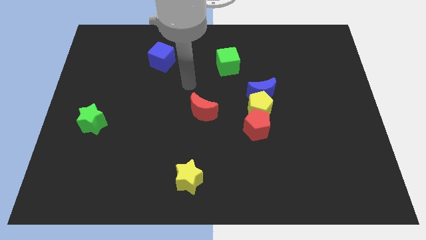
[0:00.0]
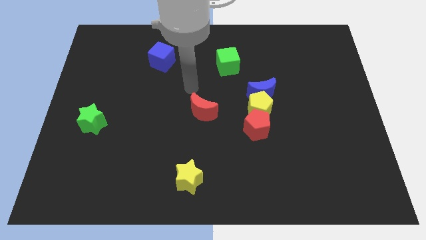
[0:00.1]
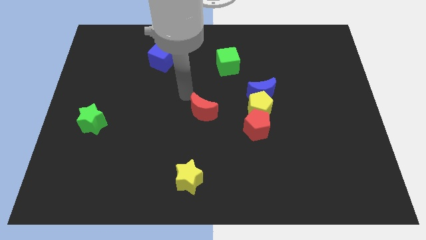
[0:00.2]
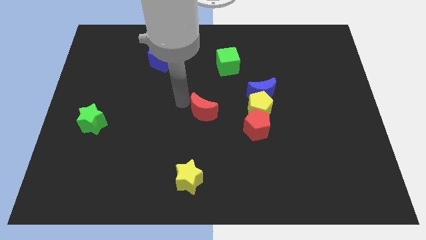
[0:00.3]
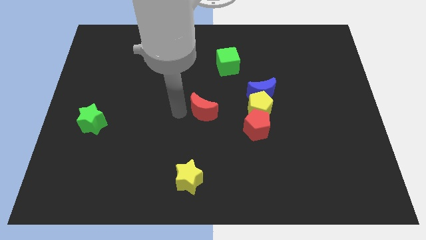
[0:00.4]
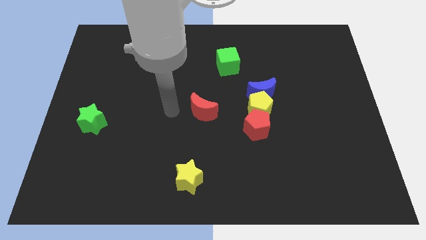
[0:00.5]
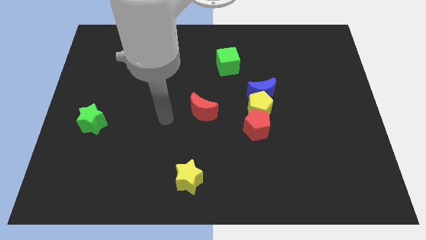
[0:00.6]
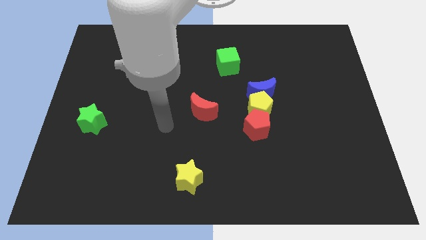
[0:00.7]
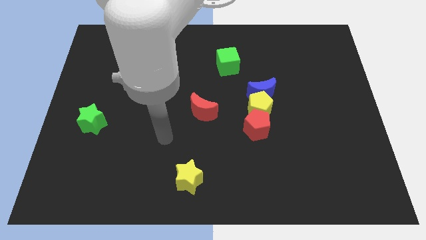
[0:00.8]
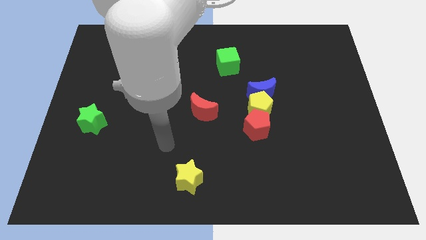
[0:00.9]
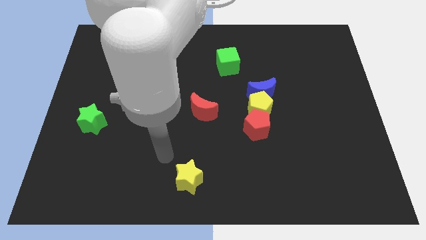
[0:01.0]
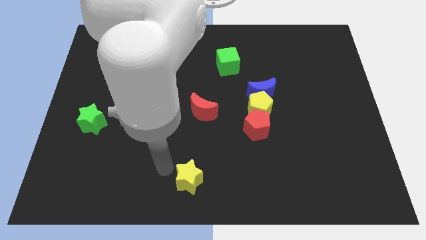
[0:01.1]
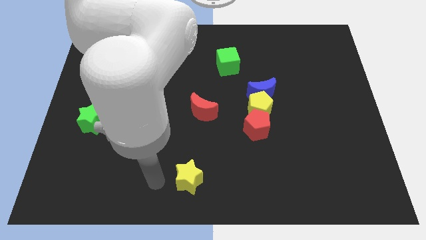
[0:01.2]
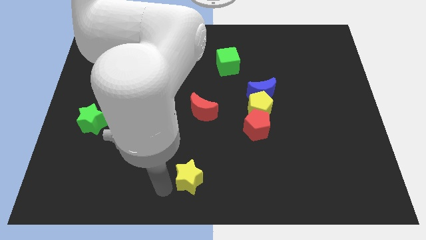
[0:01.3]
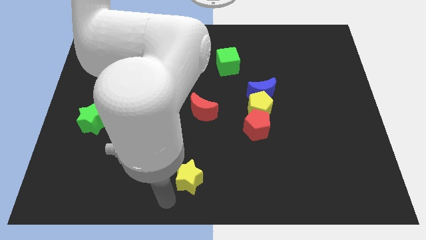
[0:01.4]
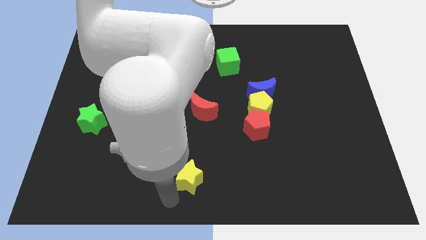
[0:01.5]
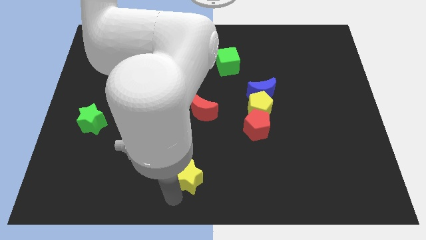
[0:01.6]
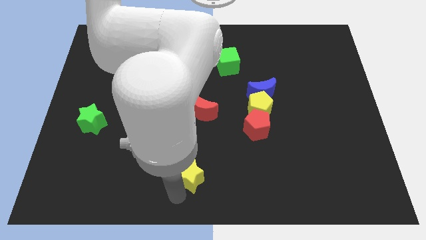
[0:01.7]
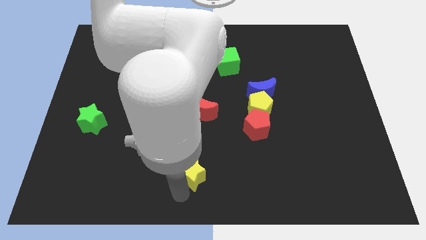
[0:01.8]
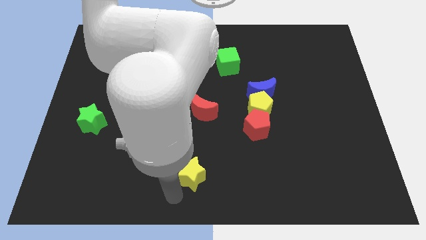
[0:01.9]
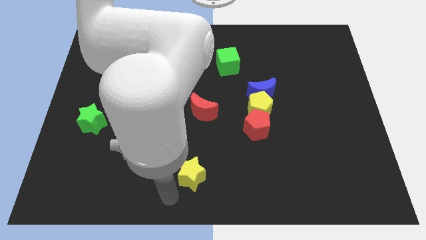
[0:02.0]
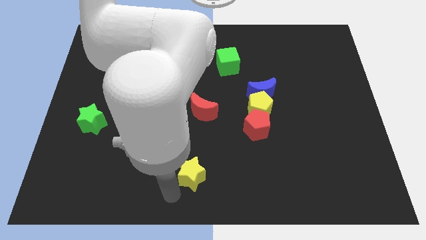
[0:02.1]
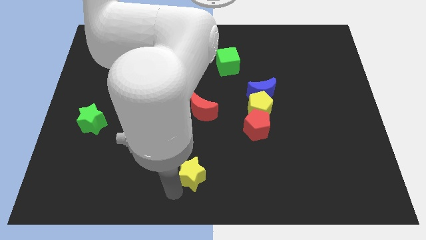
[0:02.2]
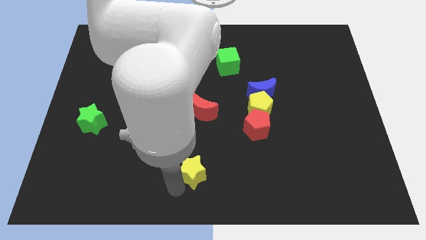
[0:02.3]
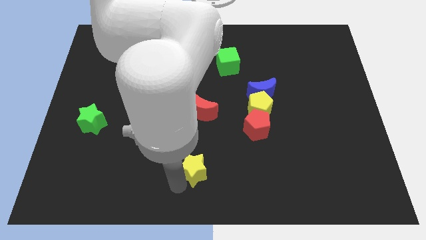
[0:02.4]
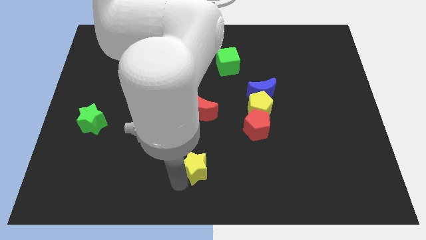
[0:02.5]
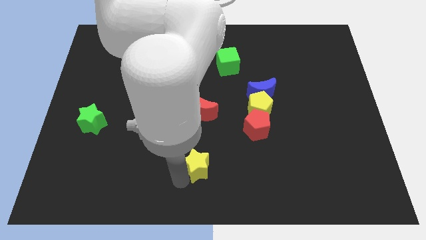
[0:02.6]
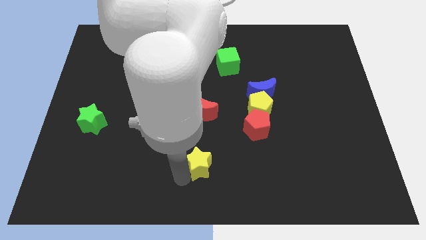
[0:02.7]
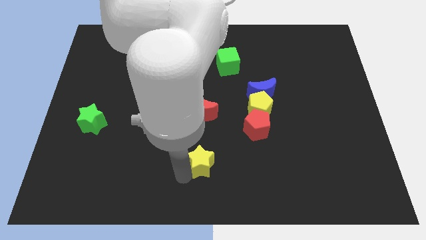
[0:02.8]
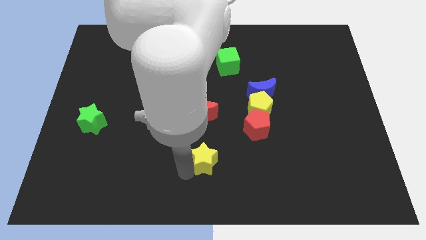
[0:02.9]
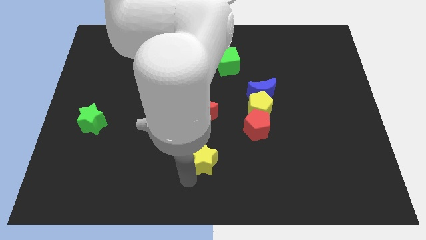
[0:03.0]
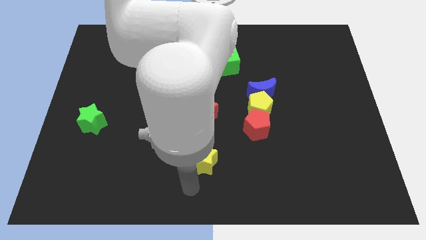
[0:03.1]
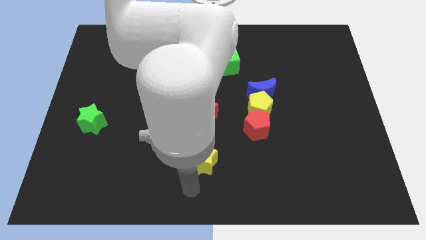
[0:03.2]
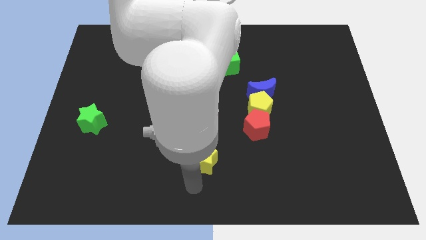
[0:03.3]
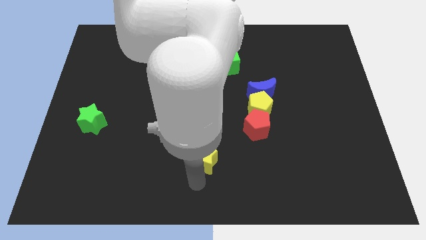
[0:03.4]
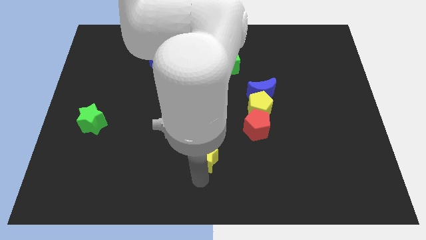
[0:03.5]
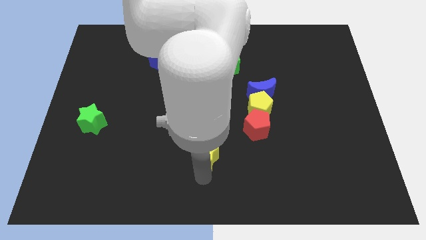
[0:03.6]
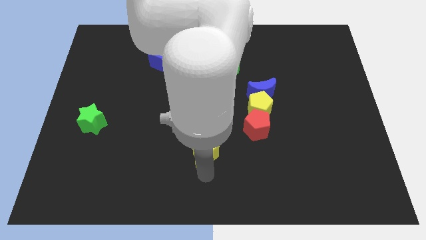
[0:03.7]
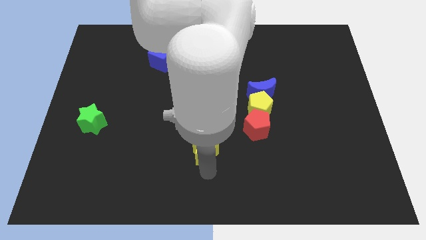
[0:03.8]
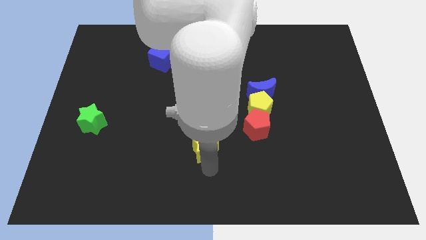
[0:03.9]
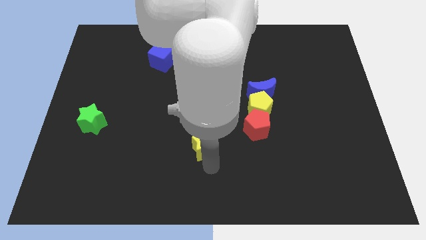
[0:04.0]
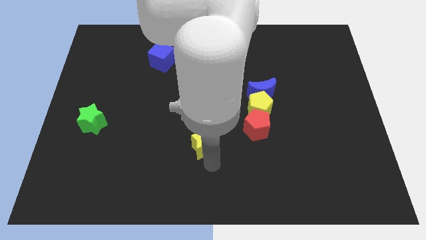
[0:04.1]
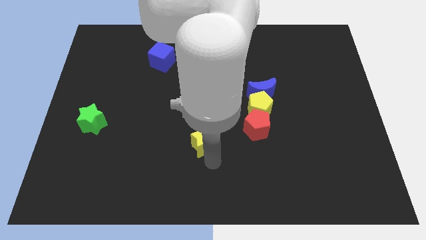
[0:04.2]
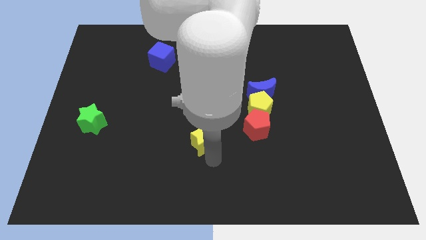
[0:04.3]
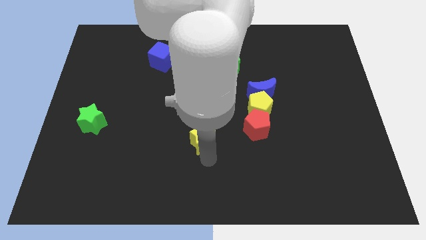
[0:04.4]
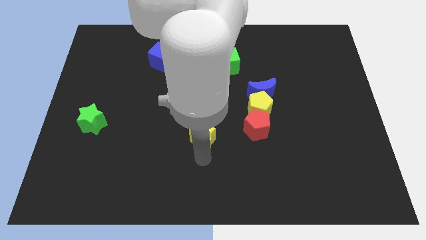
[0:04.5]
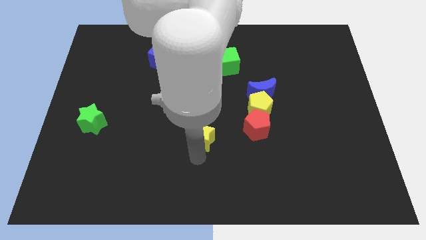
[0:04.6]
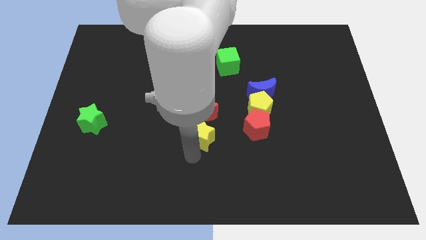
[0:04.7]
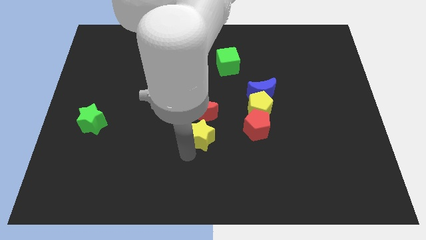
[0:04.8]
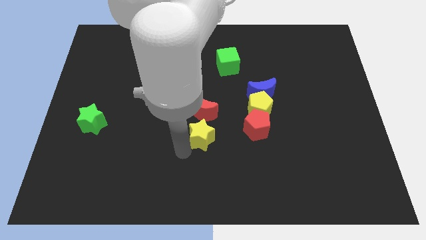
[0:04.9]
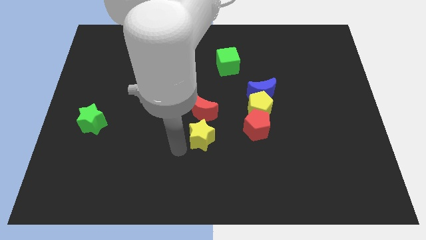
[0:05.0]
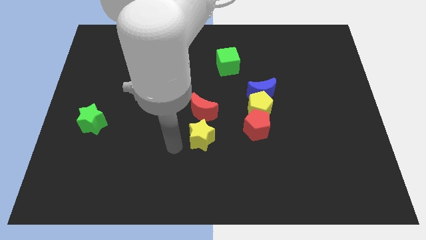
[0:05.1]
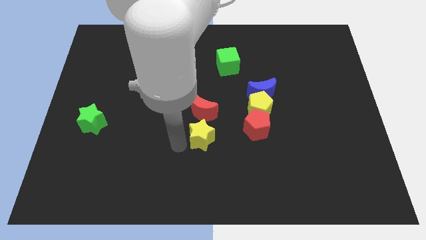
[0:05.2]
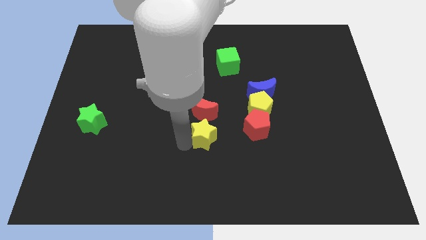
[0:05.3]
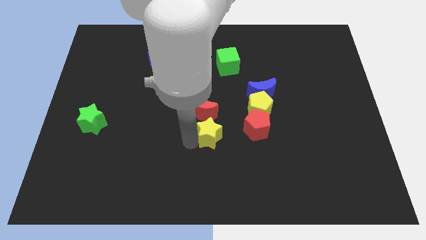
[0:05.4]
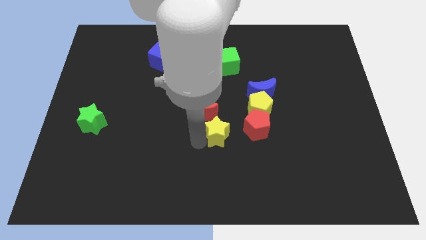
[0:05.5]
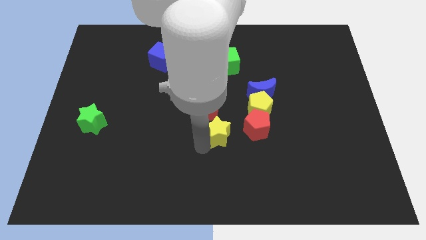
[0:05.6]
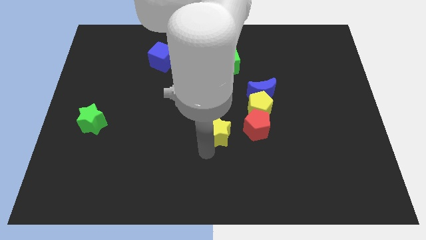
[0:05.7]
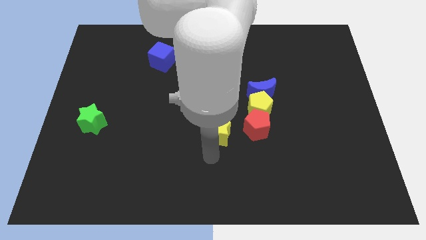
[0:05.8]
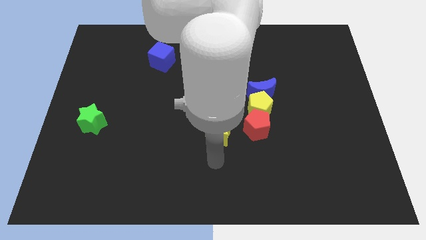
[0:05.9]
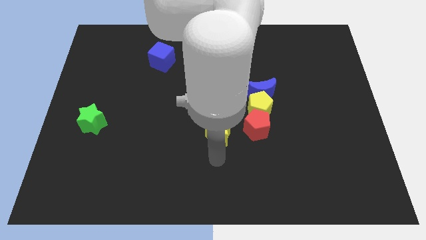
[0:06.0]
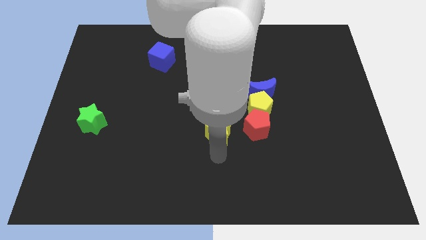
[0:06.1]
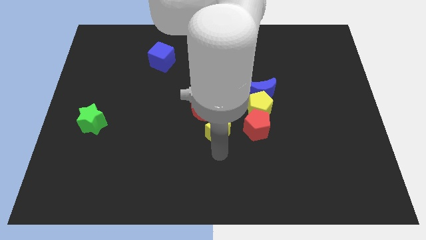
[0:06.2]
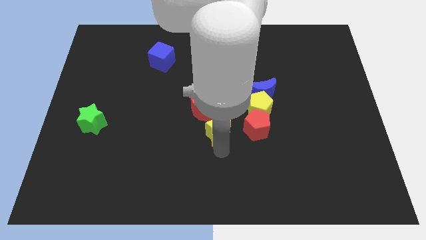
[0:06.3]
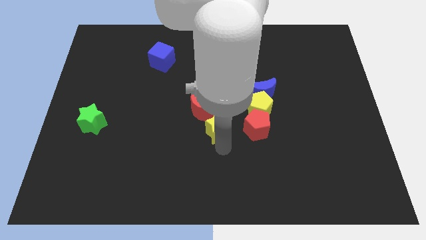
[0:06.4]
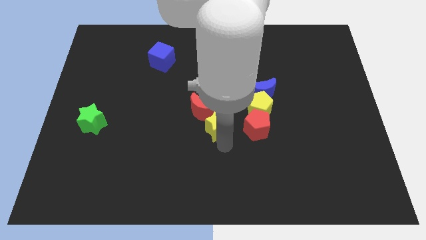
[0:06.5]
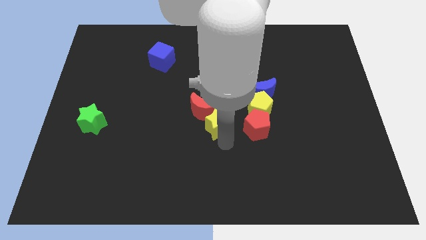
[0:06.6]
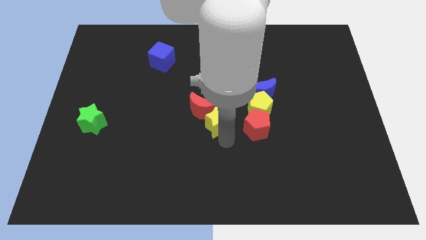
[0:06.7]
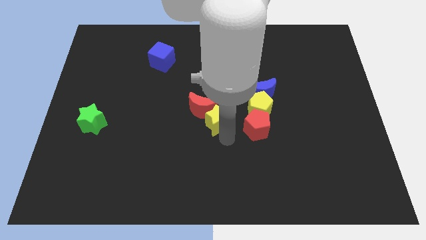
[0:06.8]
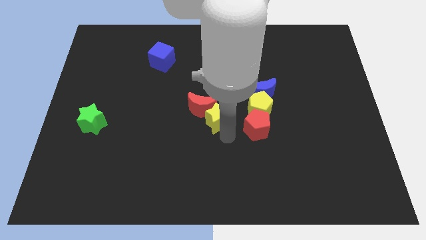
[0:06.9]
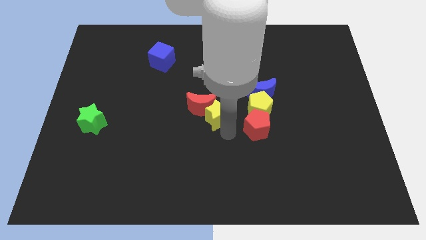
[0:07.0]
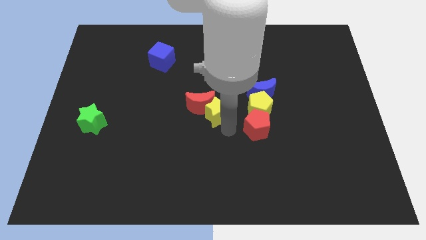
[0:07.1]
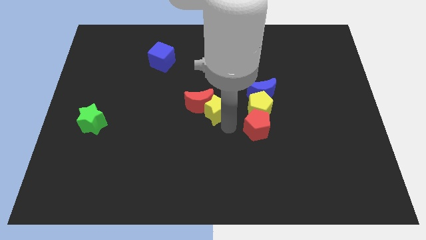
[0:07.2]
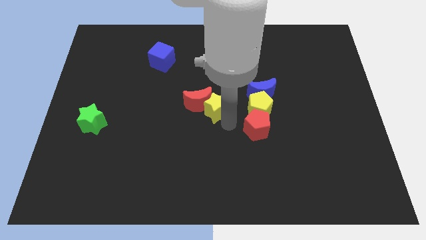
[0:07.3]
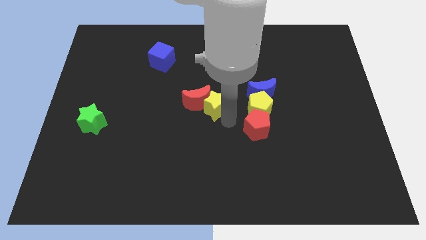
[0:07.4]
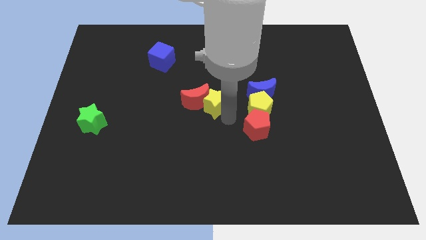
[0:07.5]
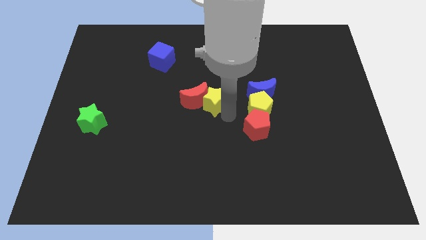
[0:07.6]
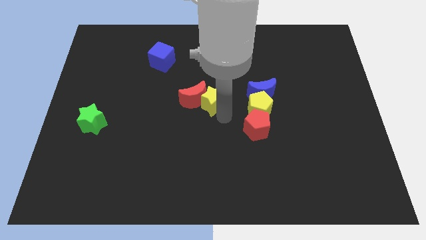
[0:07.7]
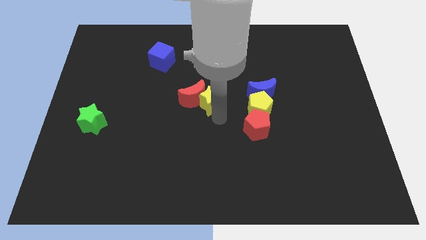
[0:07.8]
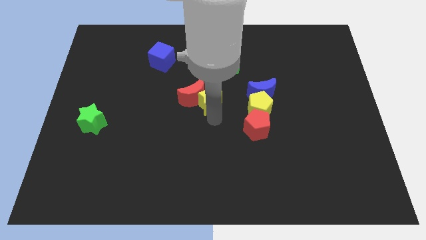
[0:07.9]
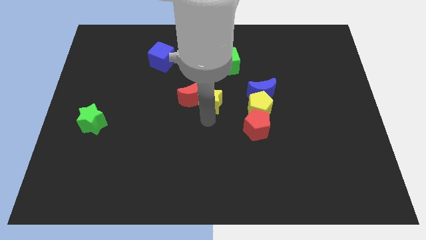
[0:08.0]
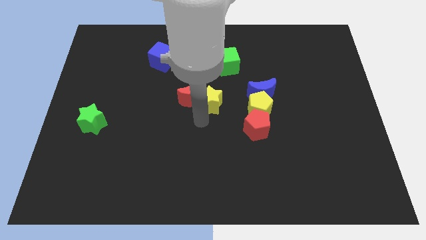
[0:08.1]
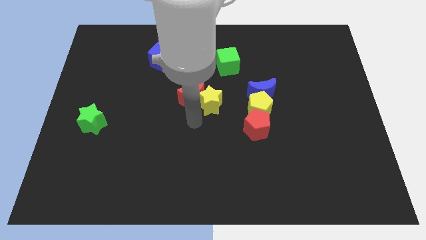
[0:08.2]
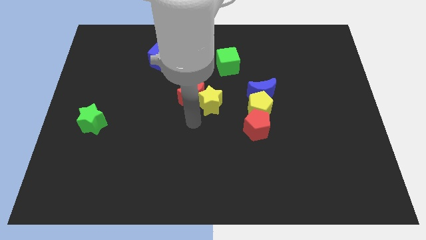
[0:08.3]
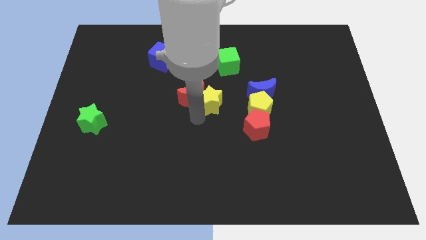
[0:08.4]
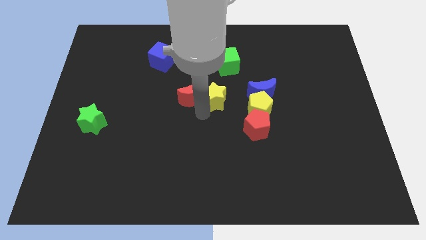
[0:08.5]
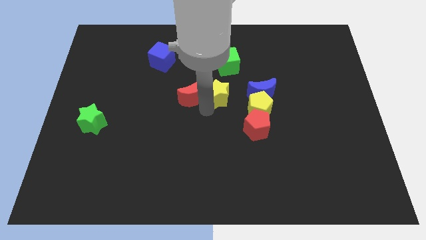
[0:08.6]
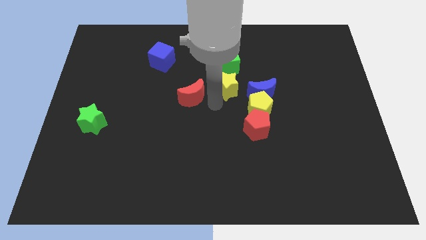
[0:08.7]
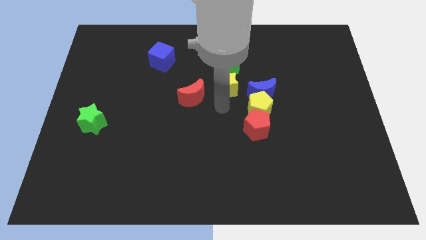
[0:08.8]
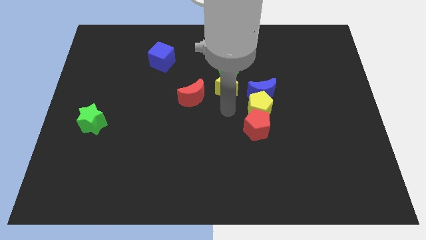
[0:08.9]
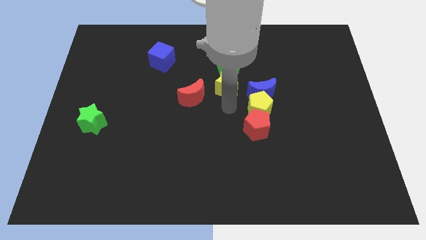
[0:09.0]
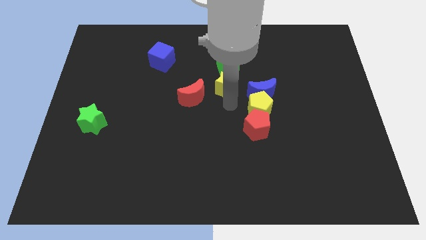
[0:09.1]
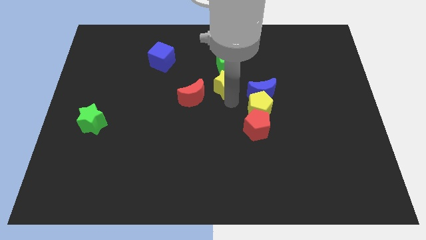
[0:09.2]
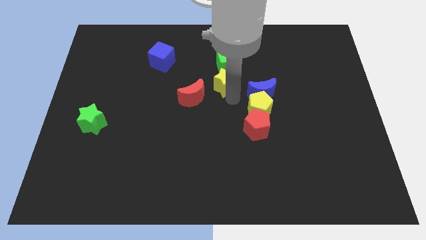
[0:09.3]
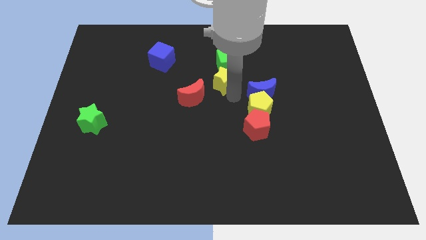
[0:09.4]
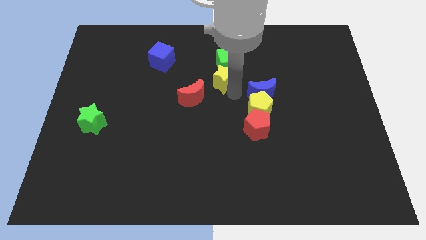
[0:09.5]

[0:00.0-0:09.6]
put the yellow star next to the green cube
